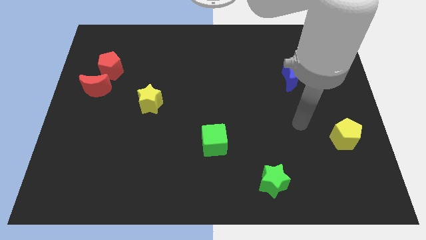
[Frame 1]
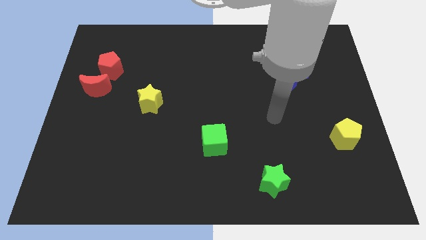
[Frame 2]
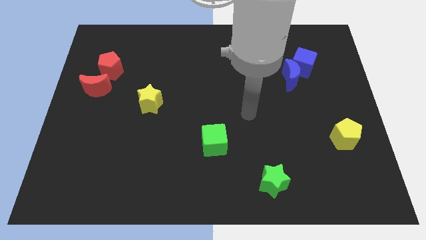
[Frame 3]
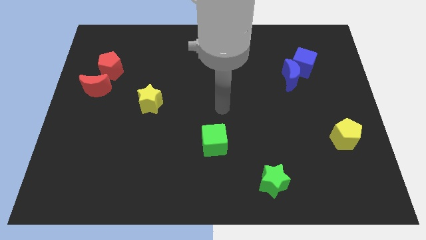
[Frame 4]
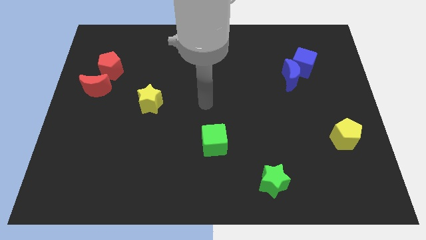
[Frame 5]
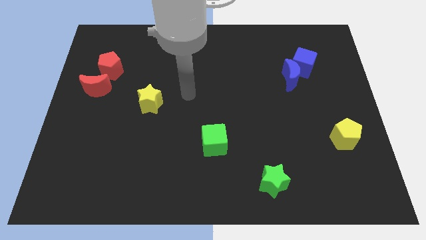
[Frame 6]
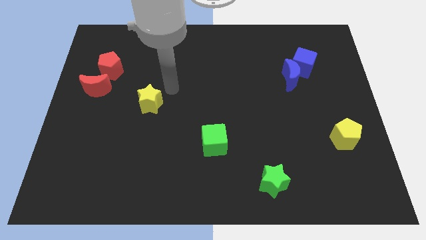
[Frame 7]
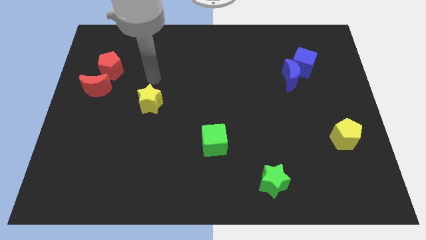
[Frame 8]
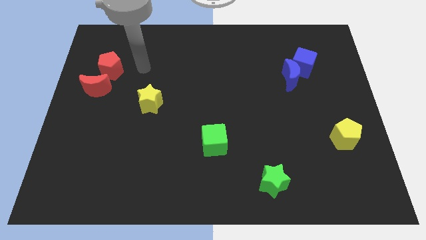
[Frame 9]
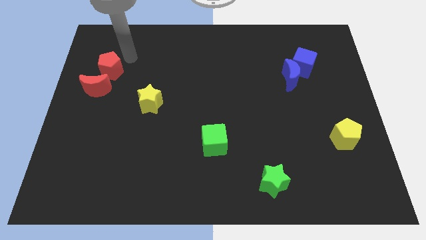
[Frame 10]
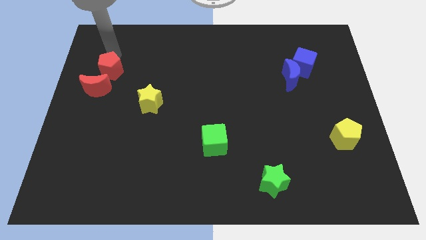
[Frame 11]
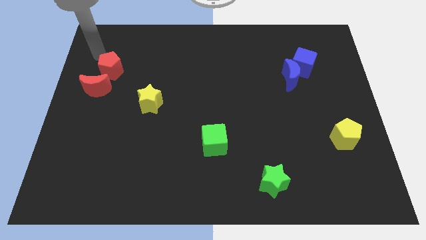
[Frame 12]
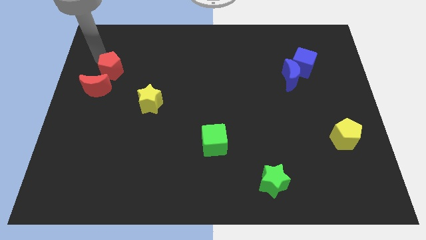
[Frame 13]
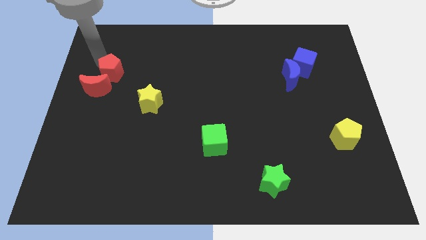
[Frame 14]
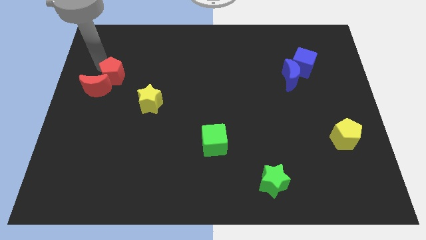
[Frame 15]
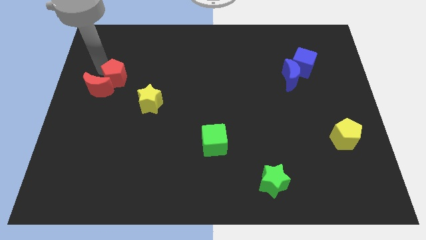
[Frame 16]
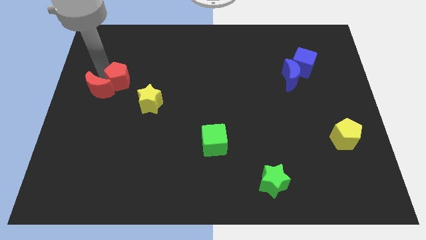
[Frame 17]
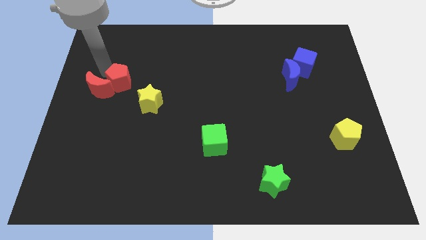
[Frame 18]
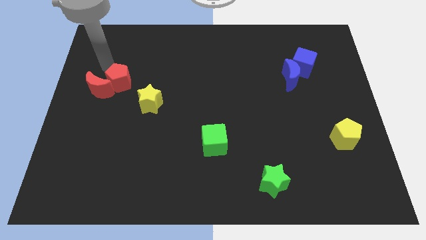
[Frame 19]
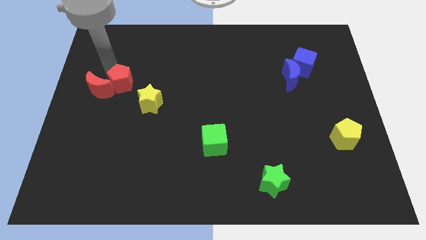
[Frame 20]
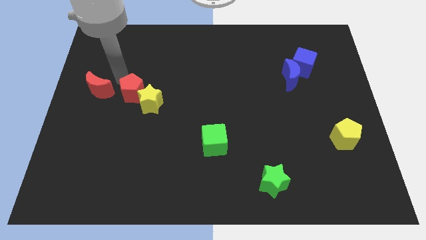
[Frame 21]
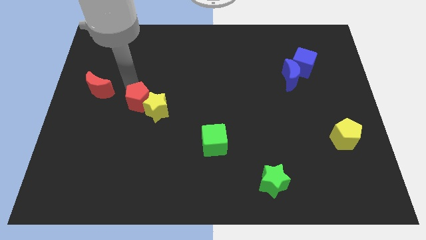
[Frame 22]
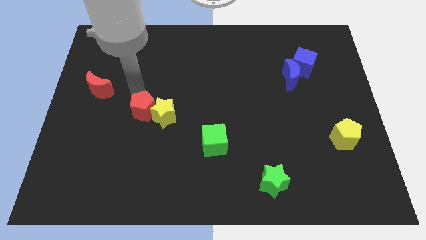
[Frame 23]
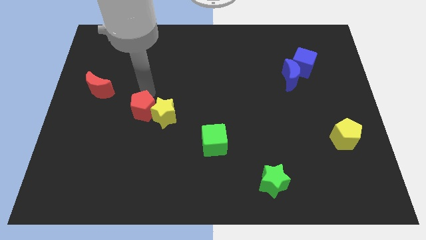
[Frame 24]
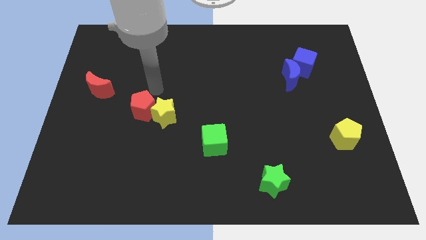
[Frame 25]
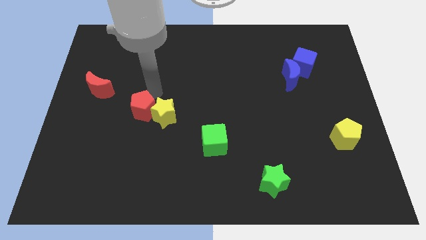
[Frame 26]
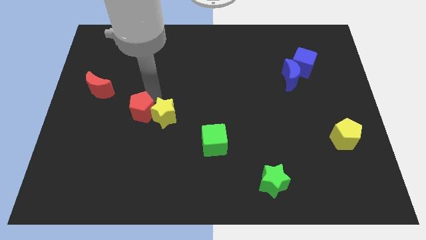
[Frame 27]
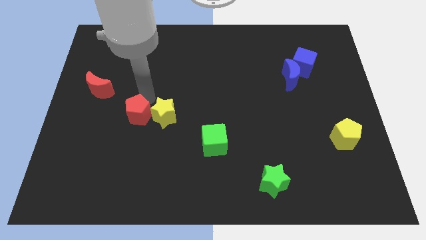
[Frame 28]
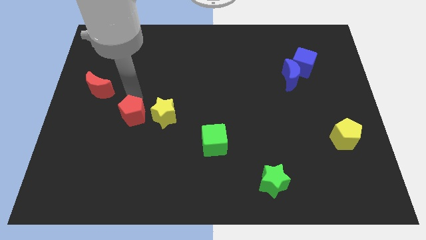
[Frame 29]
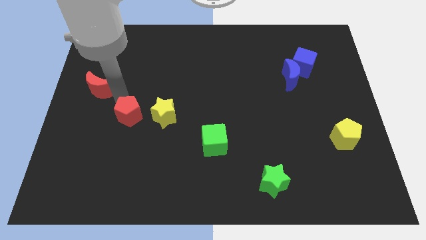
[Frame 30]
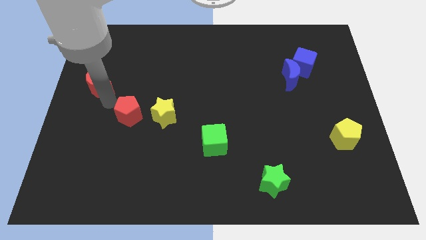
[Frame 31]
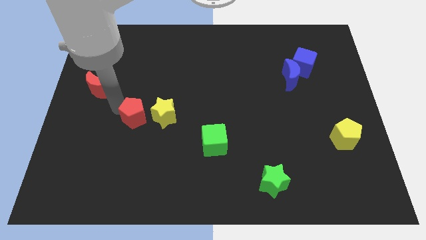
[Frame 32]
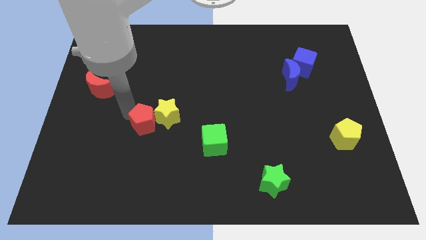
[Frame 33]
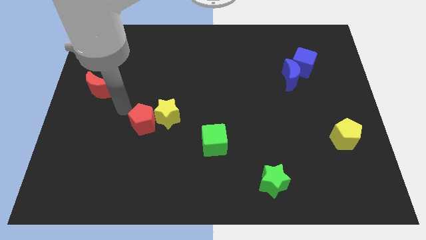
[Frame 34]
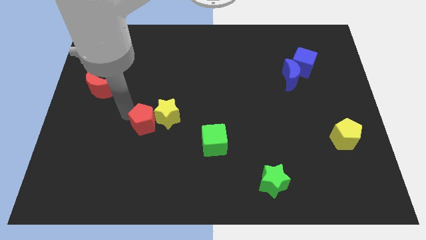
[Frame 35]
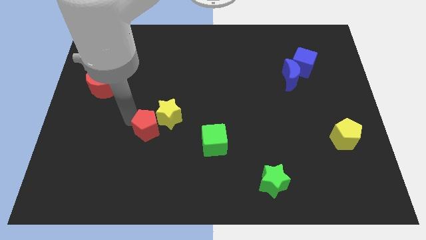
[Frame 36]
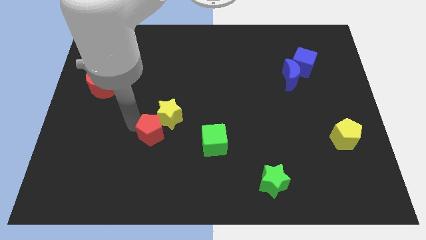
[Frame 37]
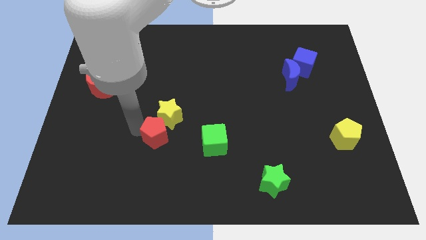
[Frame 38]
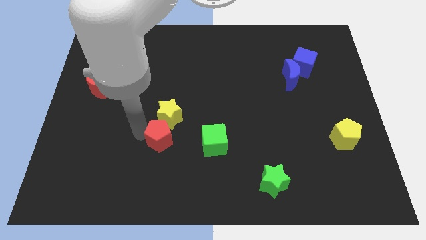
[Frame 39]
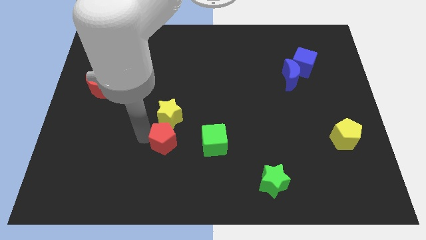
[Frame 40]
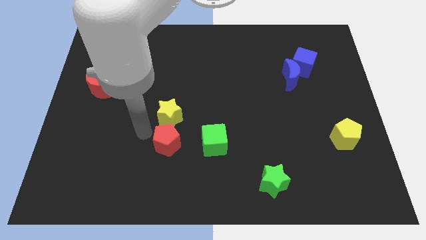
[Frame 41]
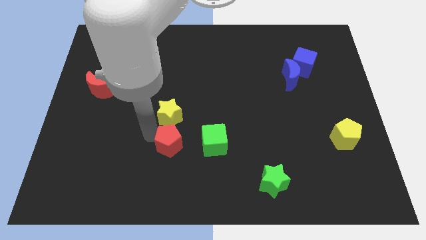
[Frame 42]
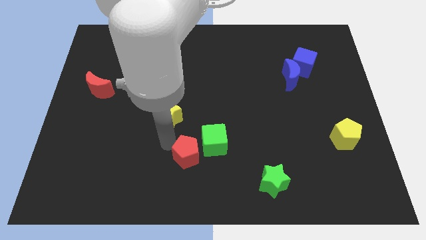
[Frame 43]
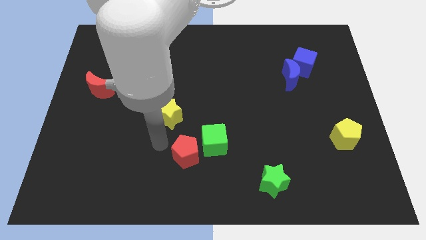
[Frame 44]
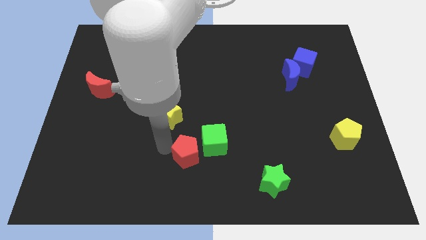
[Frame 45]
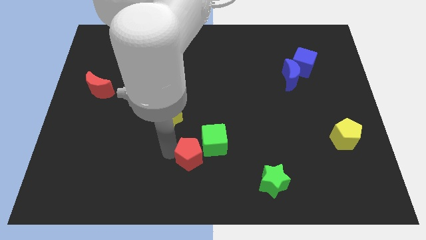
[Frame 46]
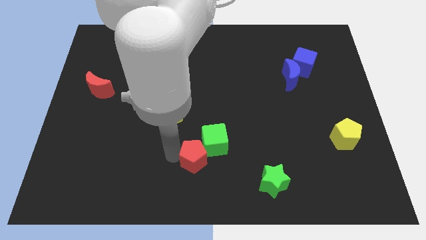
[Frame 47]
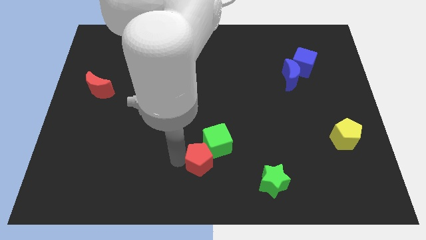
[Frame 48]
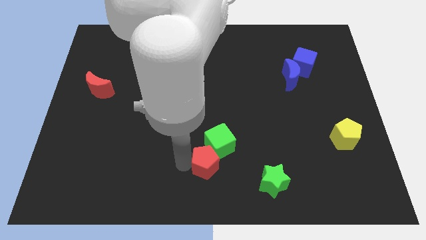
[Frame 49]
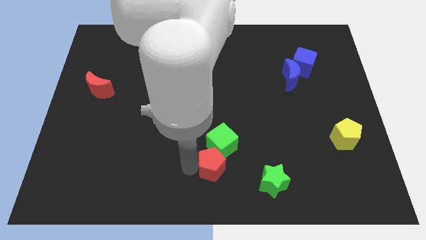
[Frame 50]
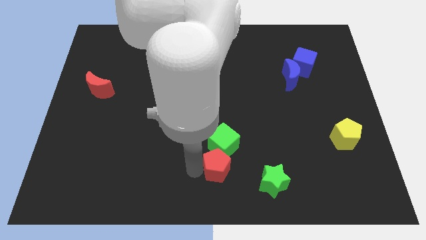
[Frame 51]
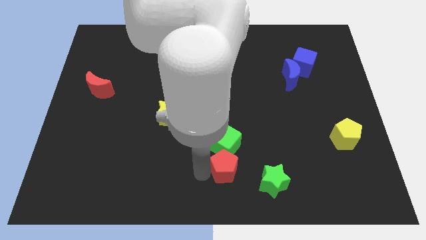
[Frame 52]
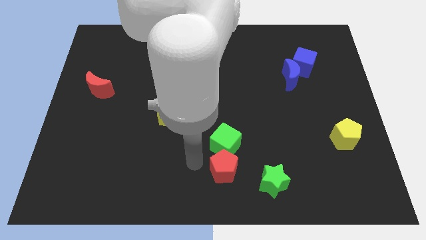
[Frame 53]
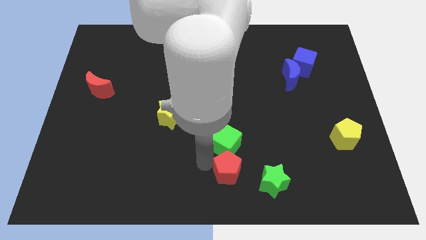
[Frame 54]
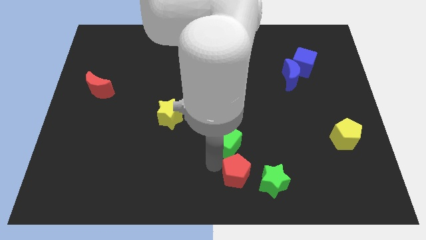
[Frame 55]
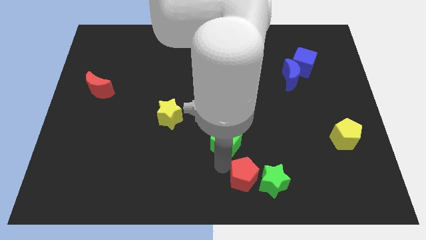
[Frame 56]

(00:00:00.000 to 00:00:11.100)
push the red pentagon close to the green star

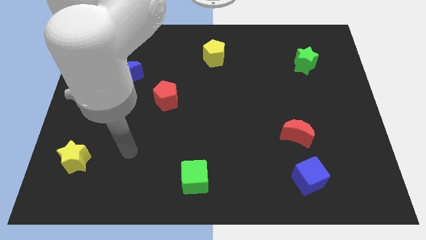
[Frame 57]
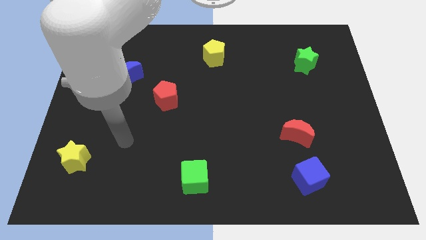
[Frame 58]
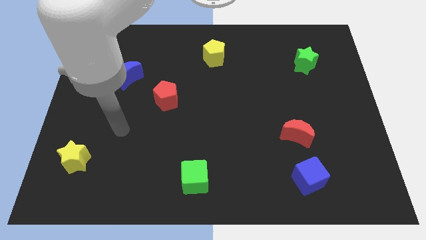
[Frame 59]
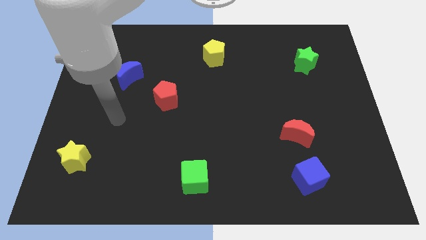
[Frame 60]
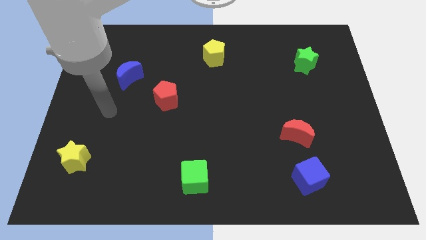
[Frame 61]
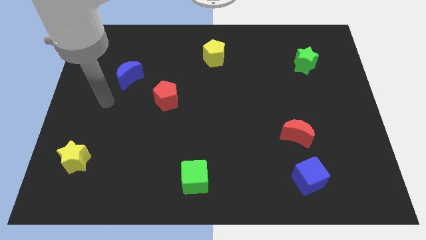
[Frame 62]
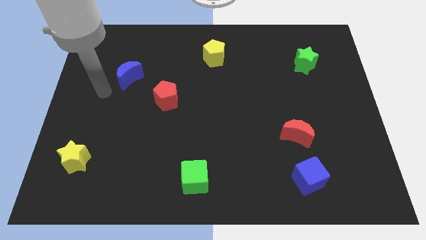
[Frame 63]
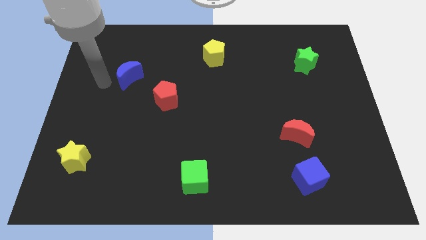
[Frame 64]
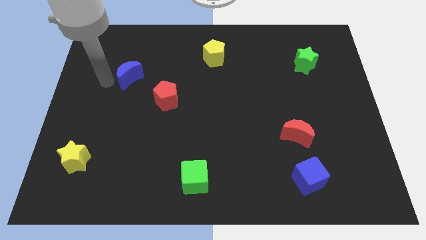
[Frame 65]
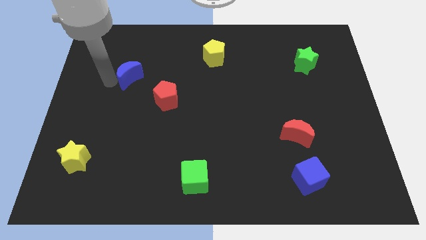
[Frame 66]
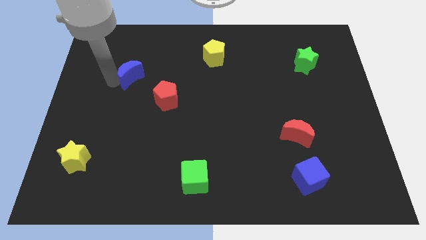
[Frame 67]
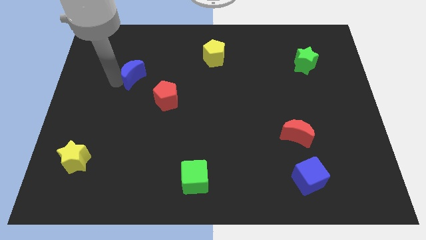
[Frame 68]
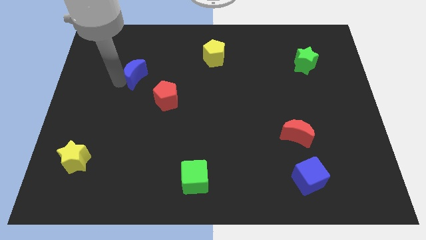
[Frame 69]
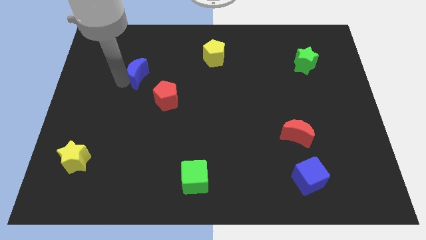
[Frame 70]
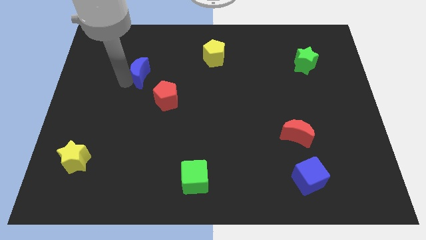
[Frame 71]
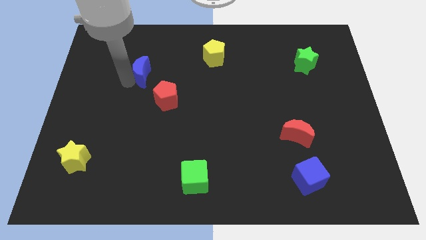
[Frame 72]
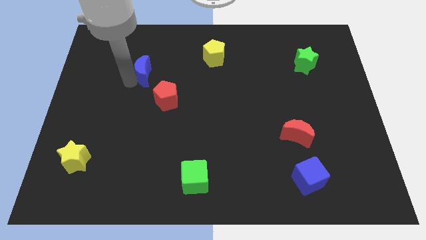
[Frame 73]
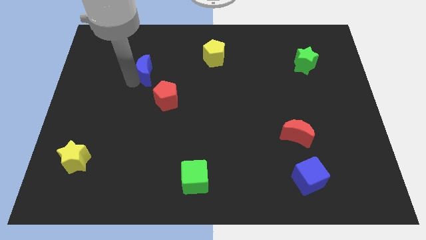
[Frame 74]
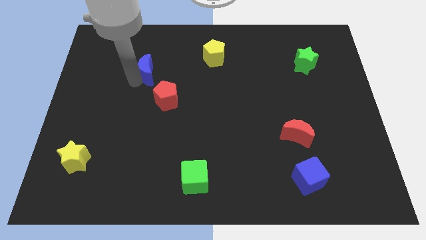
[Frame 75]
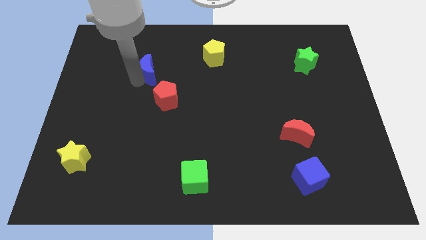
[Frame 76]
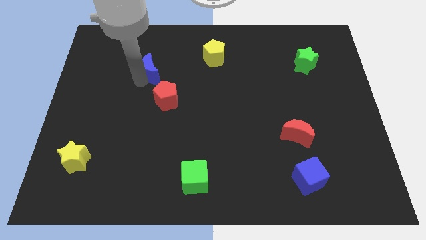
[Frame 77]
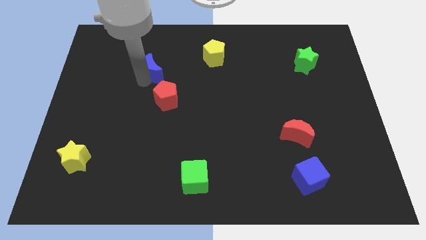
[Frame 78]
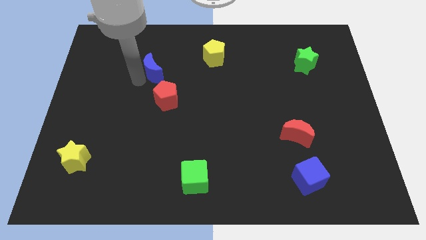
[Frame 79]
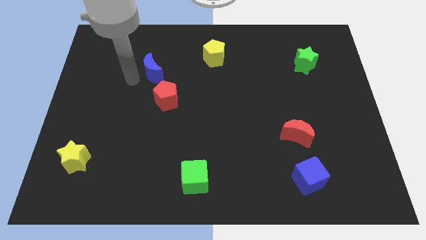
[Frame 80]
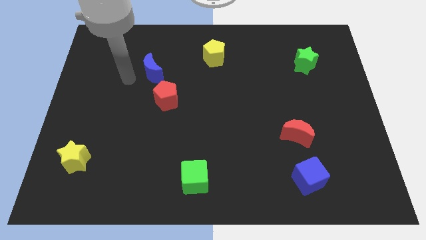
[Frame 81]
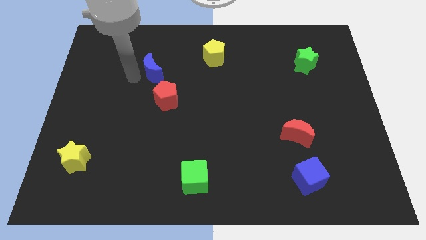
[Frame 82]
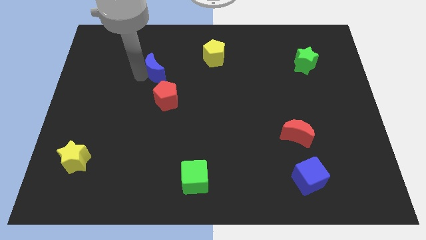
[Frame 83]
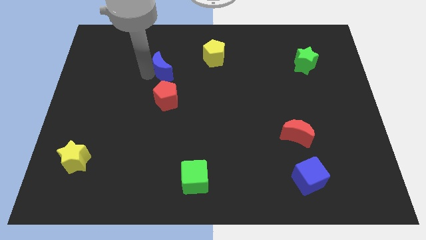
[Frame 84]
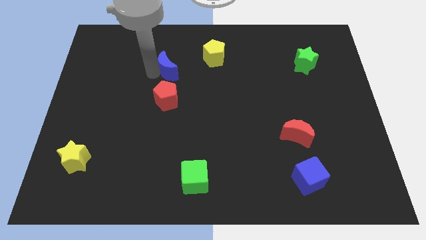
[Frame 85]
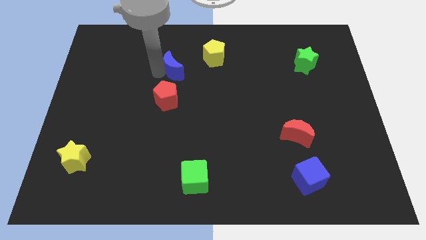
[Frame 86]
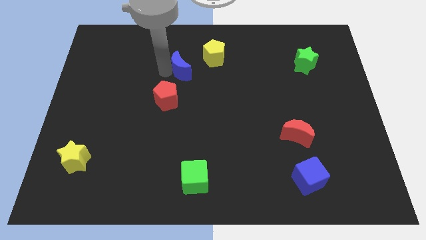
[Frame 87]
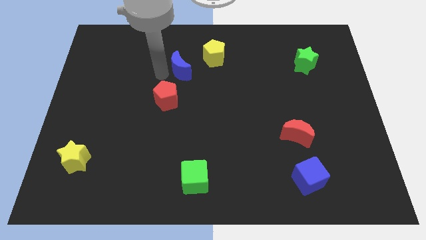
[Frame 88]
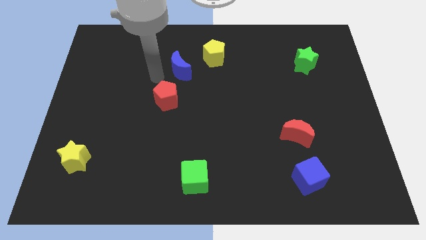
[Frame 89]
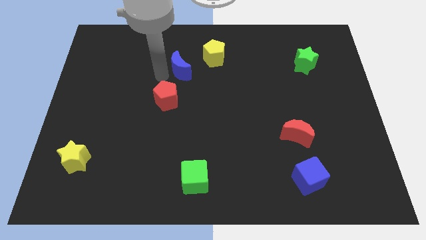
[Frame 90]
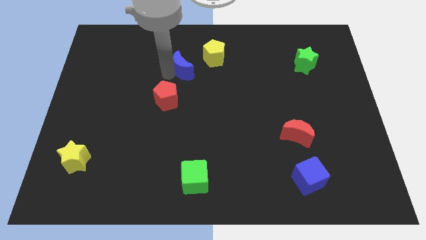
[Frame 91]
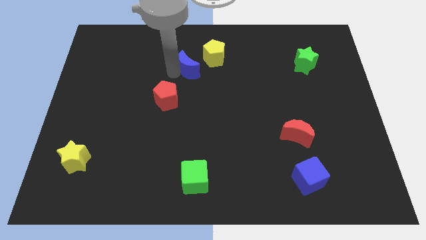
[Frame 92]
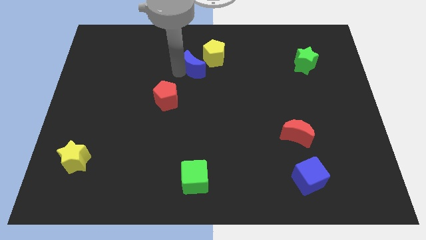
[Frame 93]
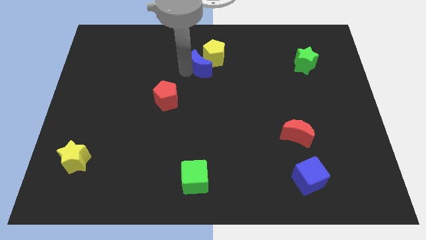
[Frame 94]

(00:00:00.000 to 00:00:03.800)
slide the blue moon close to the yellow pentagon
